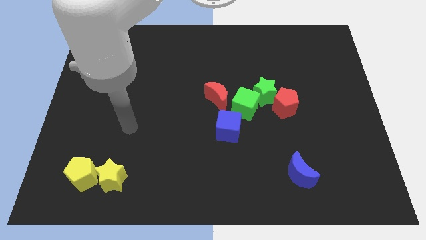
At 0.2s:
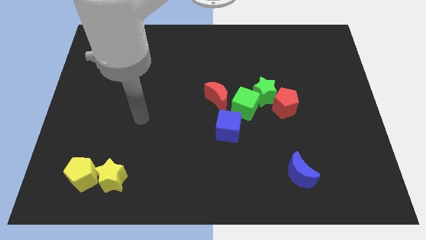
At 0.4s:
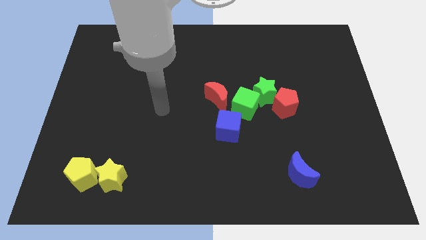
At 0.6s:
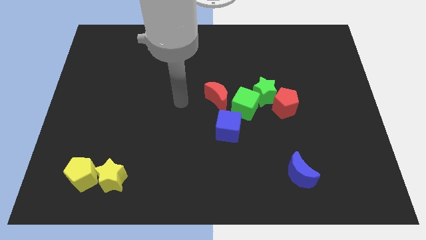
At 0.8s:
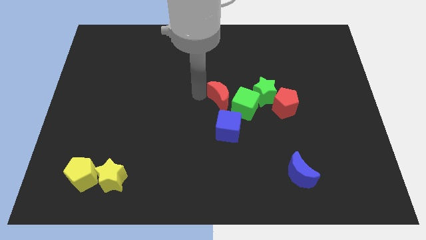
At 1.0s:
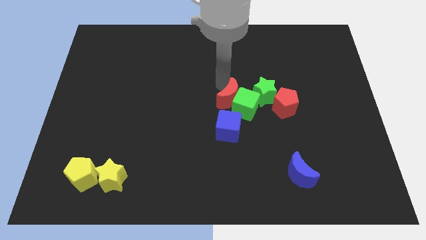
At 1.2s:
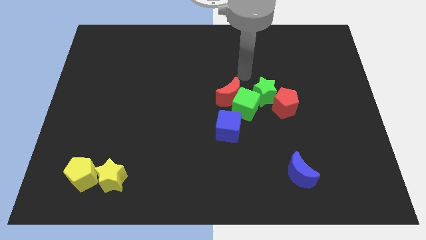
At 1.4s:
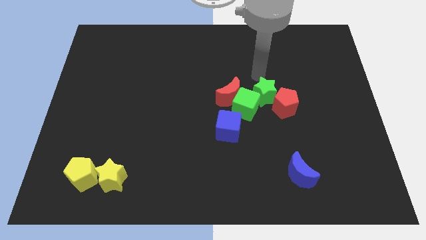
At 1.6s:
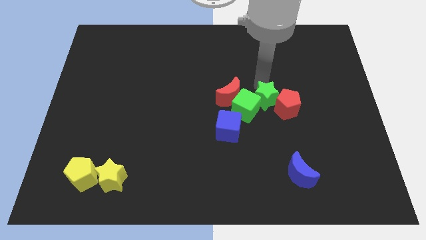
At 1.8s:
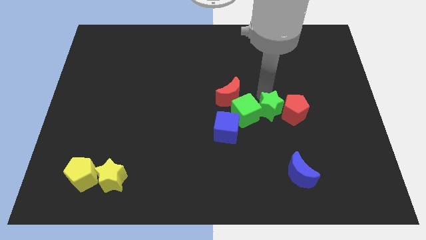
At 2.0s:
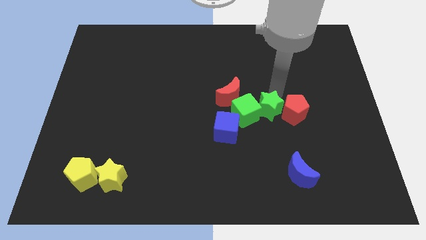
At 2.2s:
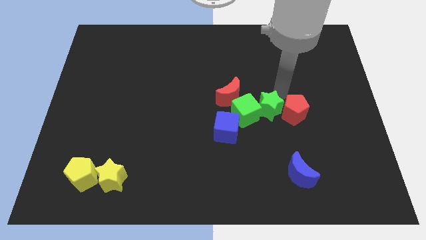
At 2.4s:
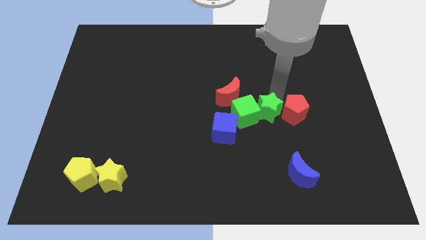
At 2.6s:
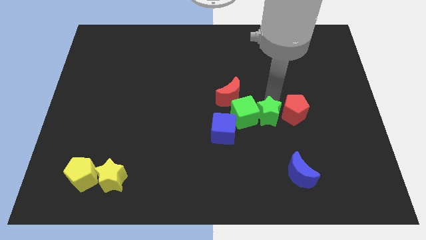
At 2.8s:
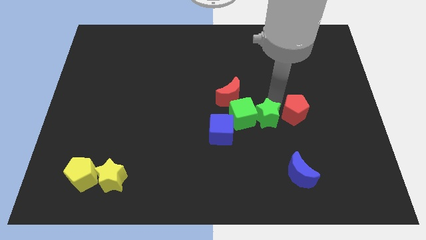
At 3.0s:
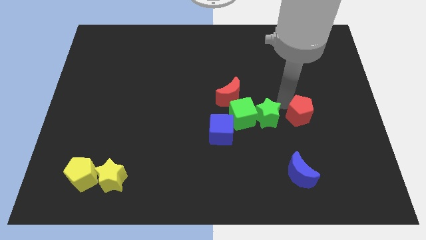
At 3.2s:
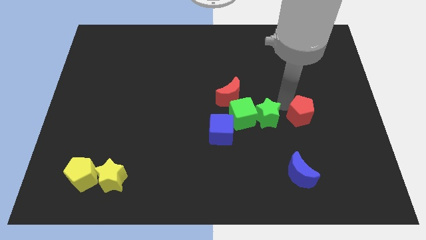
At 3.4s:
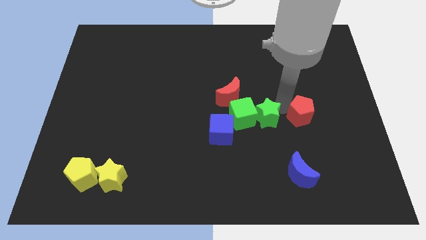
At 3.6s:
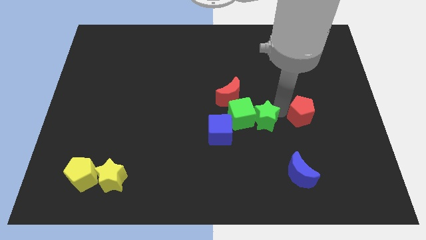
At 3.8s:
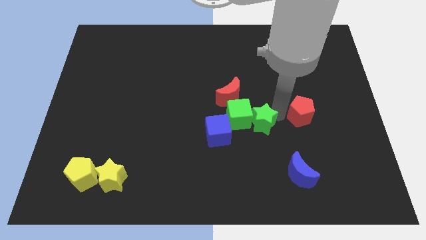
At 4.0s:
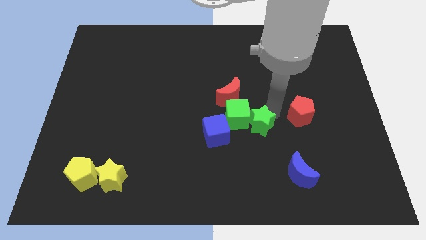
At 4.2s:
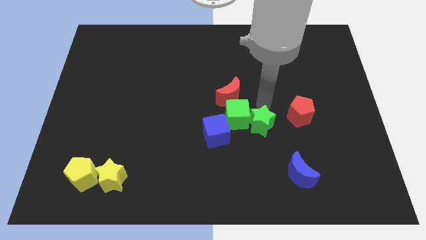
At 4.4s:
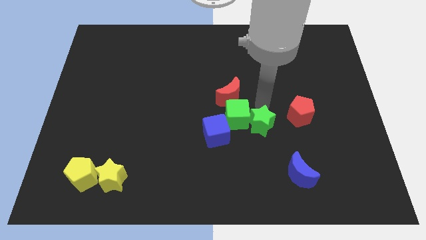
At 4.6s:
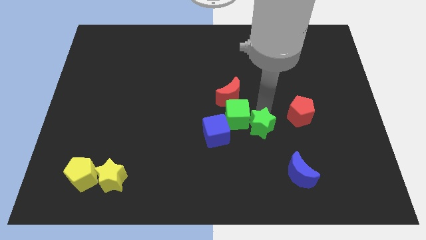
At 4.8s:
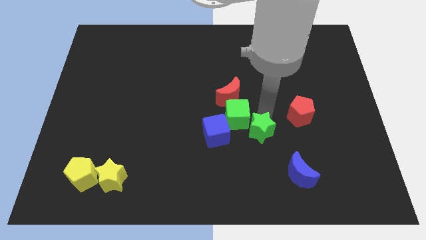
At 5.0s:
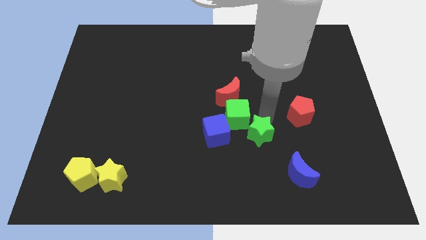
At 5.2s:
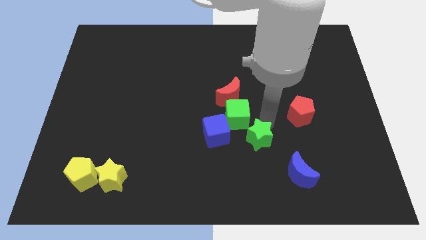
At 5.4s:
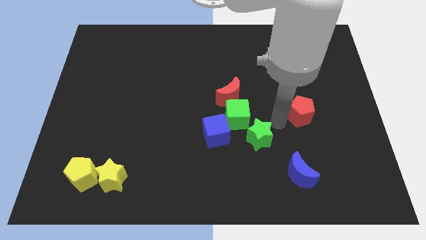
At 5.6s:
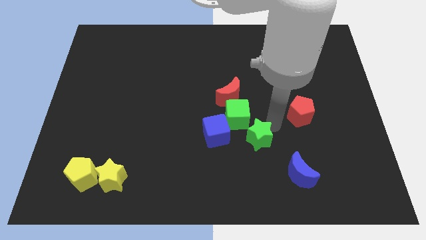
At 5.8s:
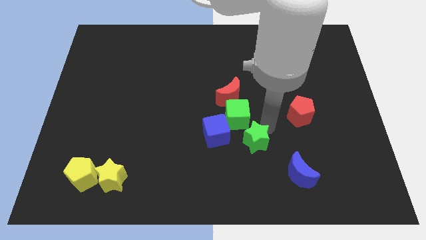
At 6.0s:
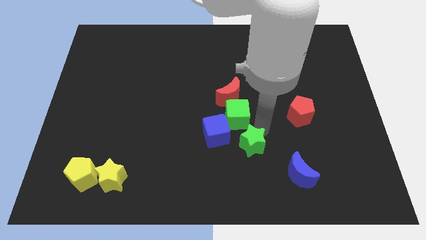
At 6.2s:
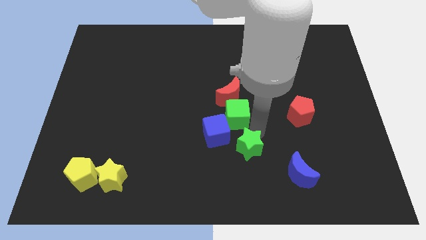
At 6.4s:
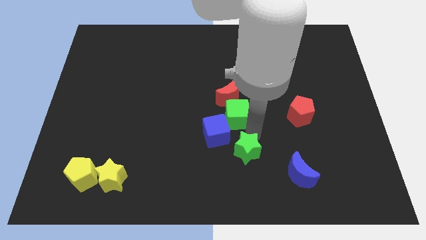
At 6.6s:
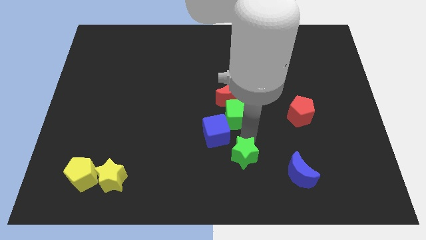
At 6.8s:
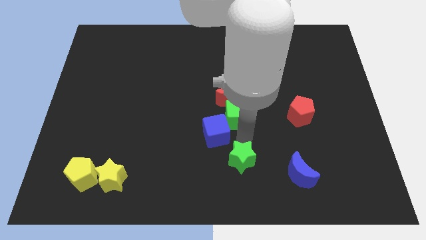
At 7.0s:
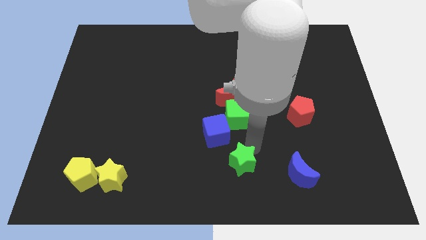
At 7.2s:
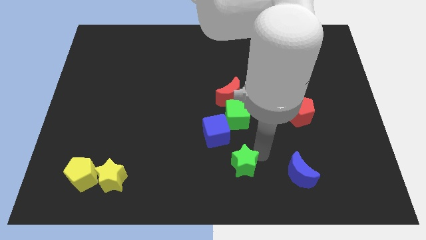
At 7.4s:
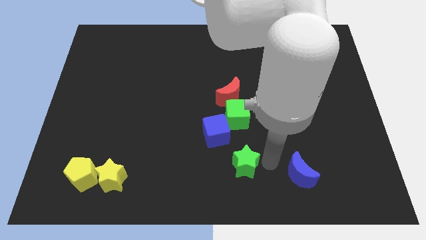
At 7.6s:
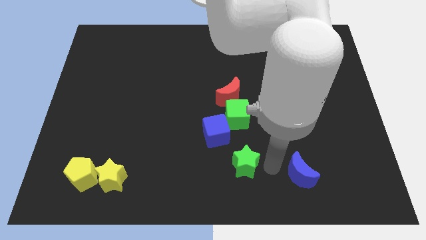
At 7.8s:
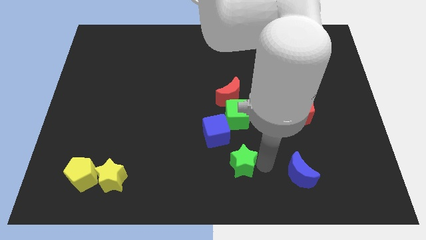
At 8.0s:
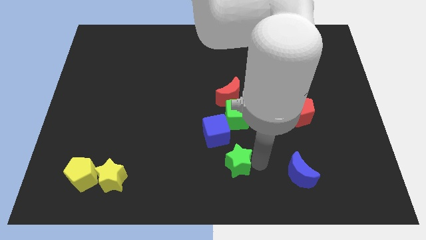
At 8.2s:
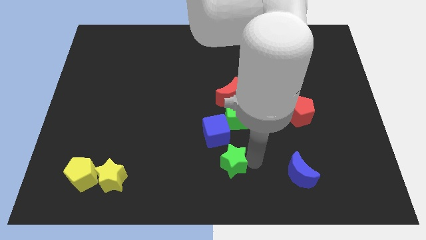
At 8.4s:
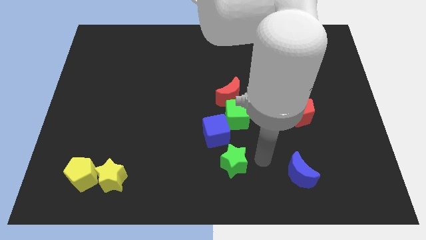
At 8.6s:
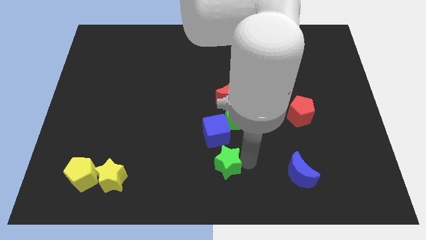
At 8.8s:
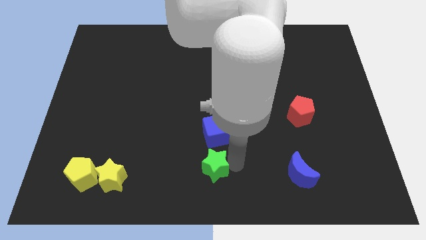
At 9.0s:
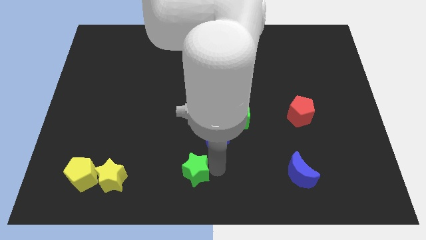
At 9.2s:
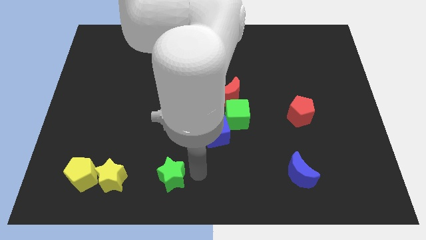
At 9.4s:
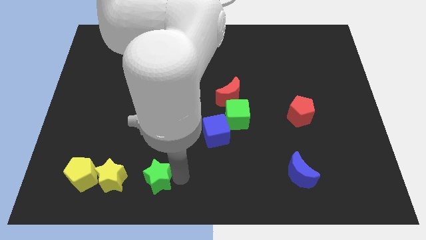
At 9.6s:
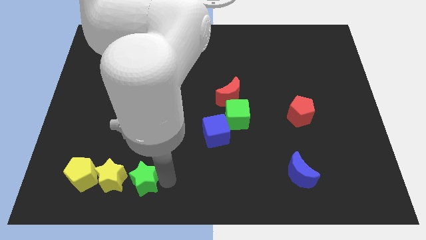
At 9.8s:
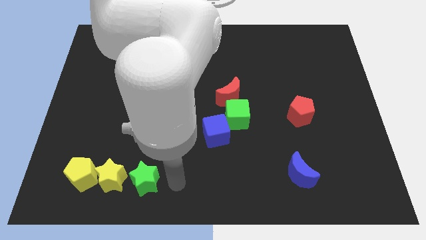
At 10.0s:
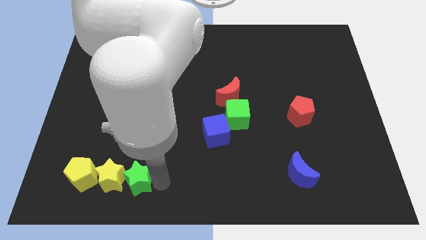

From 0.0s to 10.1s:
move the green star towards the yellow star

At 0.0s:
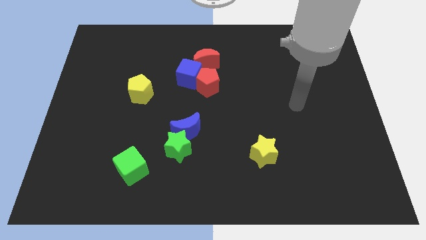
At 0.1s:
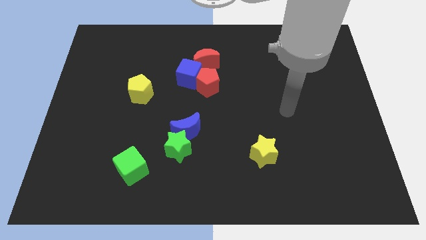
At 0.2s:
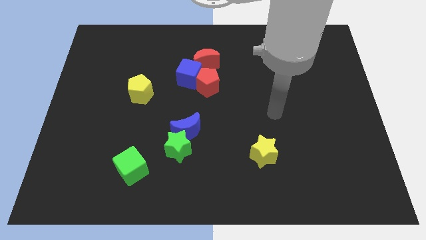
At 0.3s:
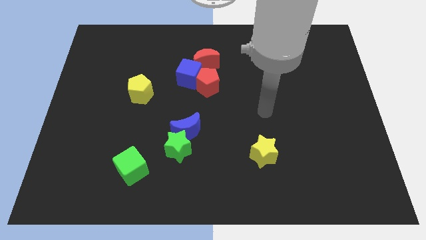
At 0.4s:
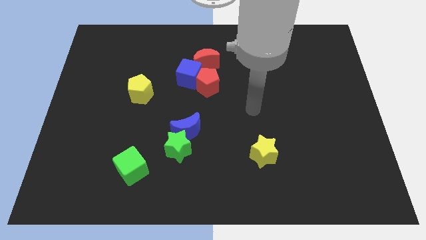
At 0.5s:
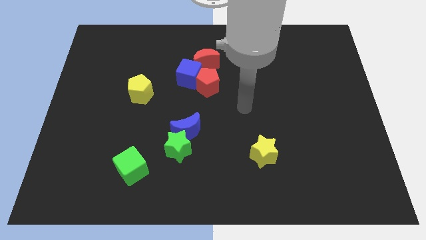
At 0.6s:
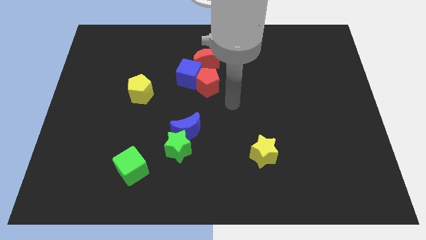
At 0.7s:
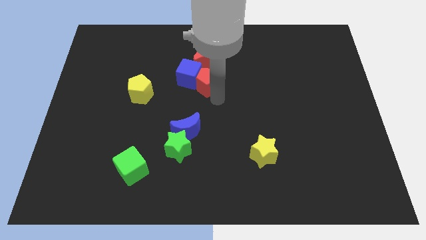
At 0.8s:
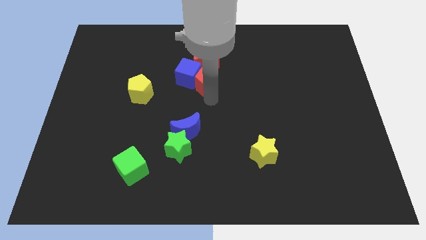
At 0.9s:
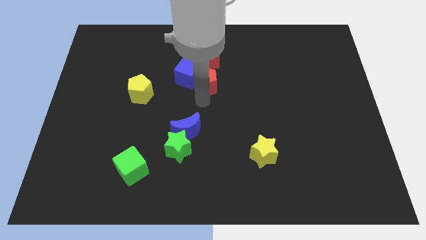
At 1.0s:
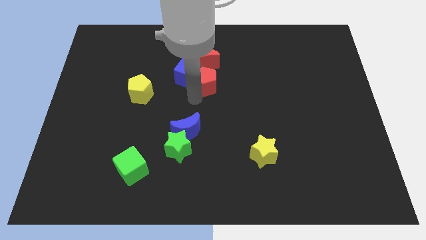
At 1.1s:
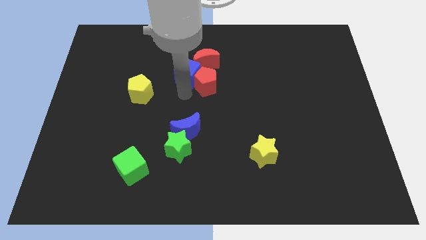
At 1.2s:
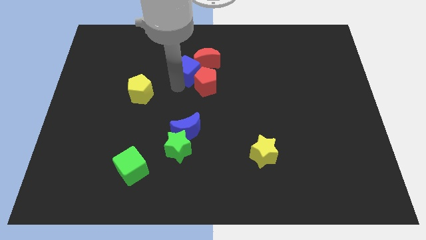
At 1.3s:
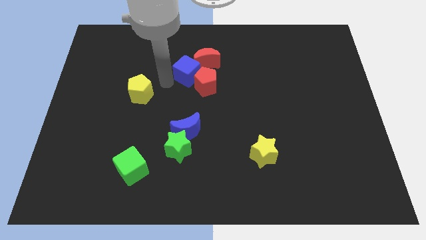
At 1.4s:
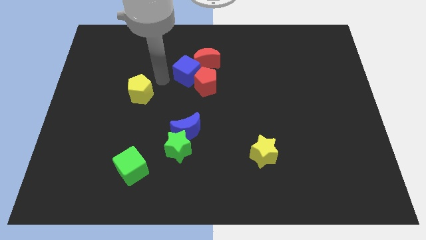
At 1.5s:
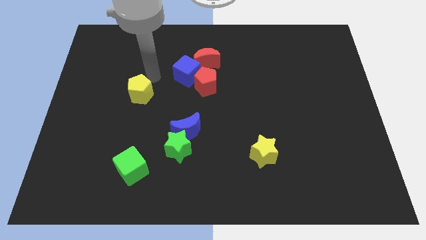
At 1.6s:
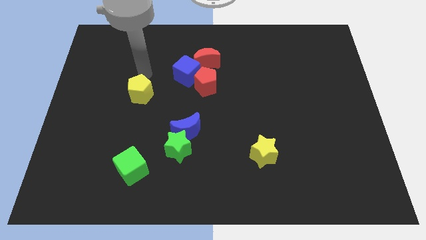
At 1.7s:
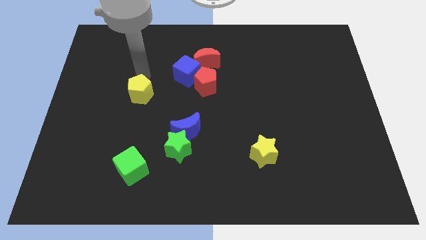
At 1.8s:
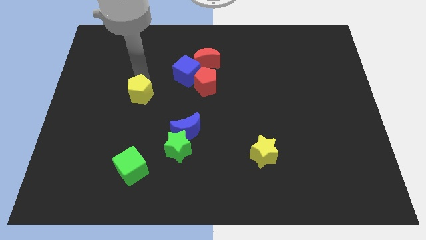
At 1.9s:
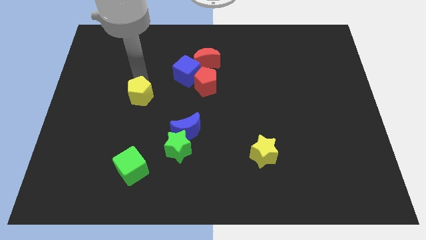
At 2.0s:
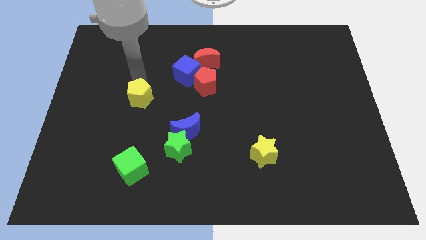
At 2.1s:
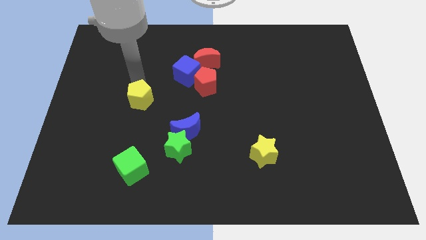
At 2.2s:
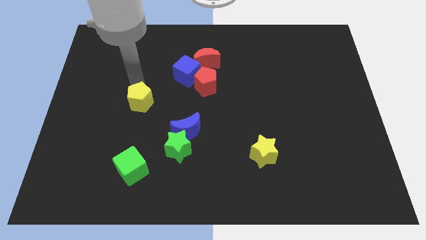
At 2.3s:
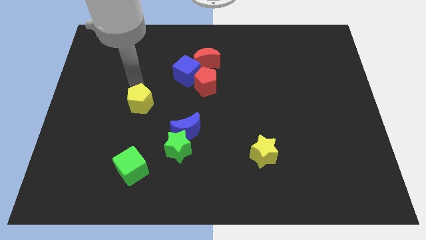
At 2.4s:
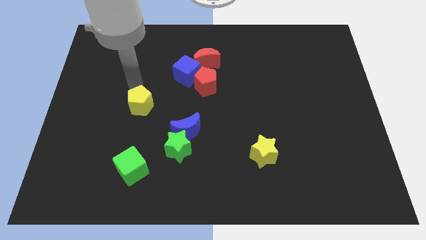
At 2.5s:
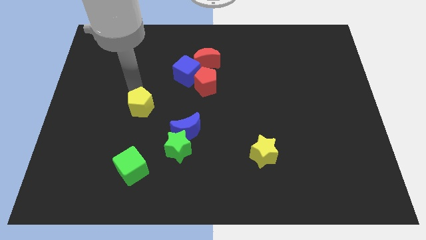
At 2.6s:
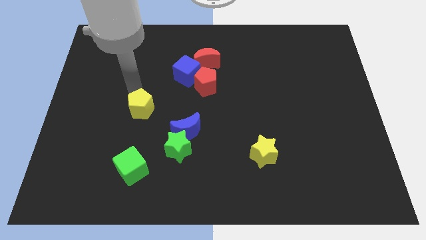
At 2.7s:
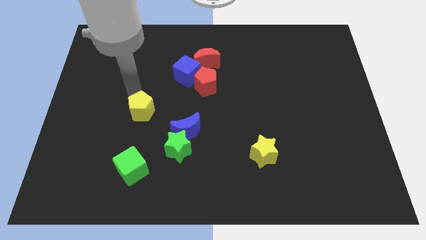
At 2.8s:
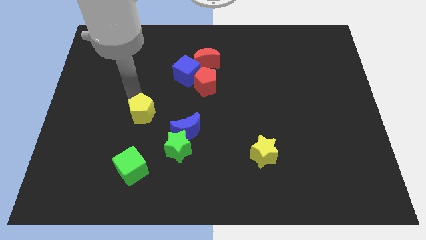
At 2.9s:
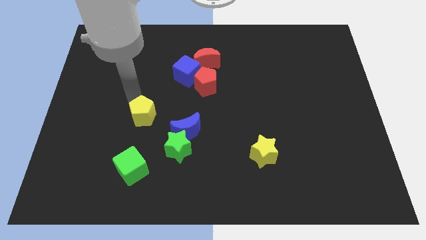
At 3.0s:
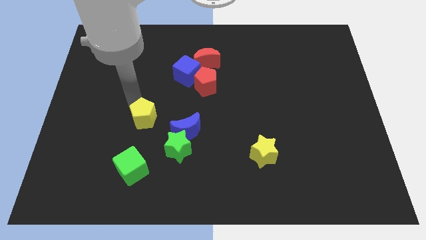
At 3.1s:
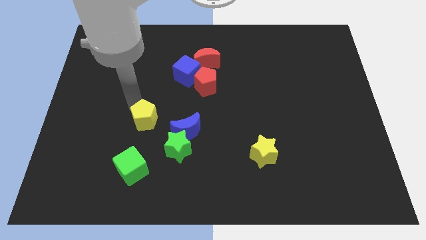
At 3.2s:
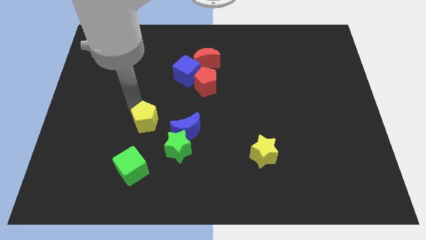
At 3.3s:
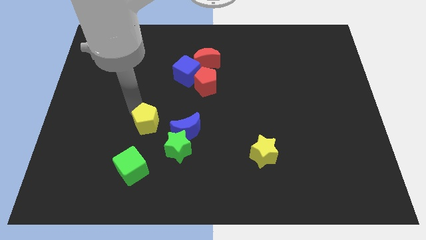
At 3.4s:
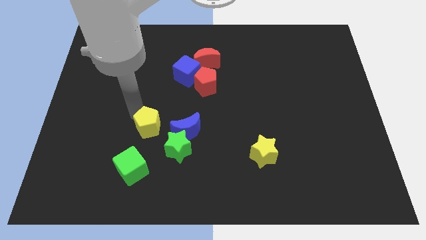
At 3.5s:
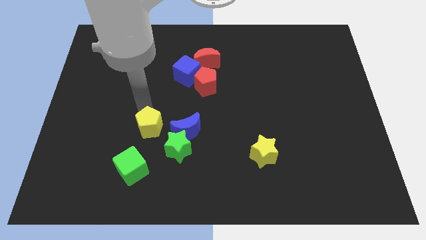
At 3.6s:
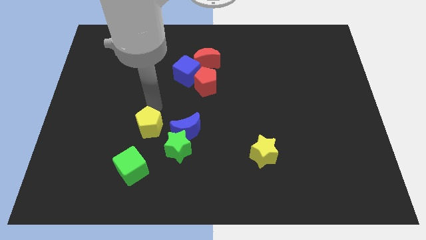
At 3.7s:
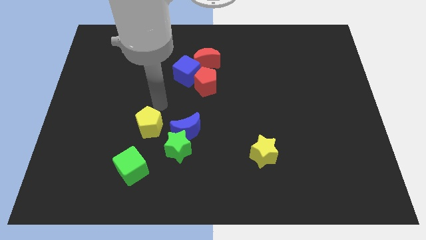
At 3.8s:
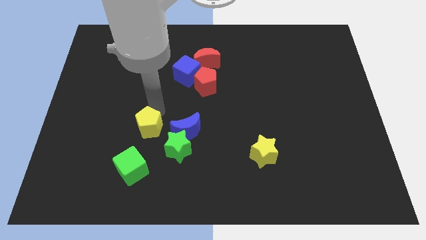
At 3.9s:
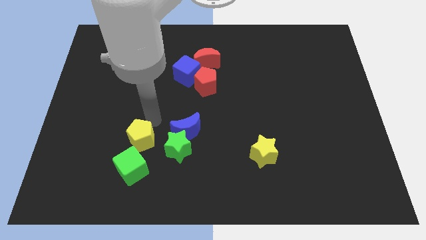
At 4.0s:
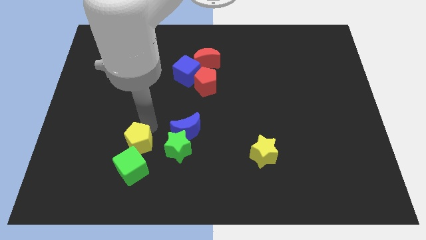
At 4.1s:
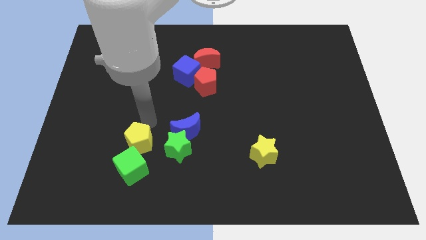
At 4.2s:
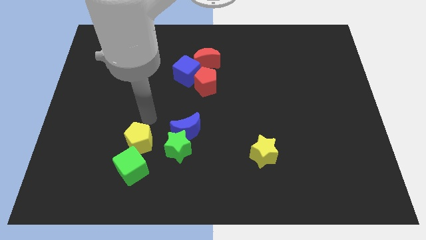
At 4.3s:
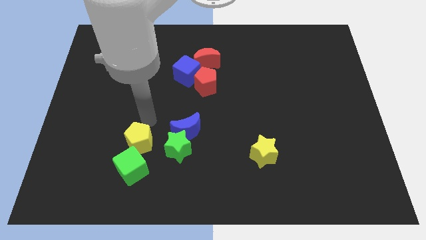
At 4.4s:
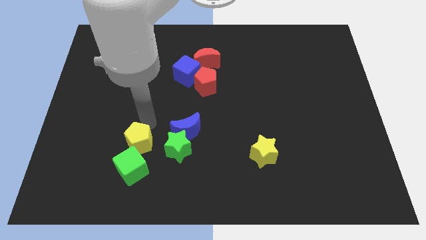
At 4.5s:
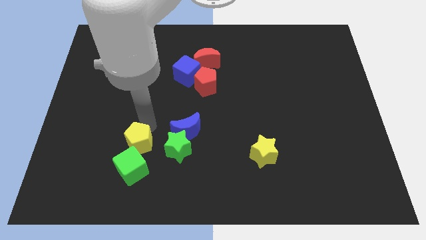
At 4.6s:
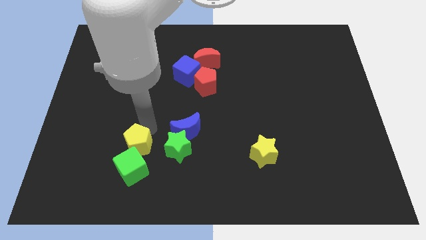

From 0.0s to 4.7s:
move the yellow pentagon next to the green cube
